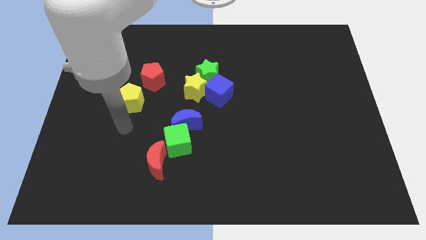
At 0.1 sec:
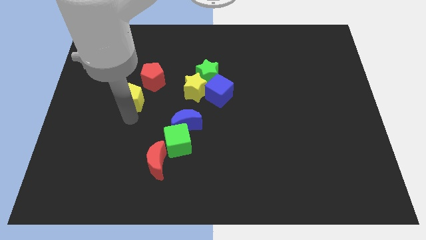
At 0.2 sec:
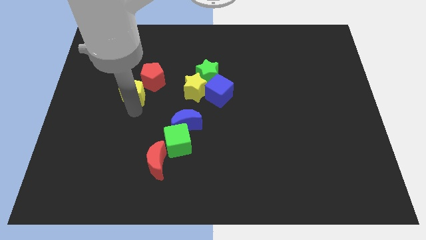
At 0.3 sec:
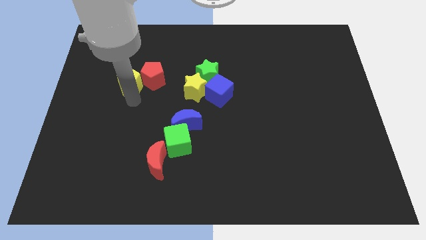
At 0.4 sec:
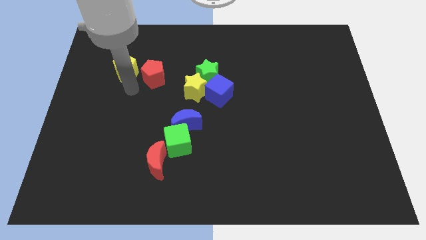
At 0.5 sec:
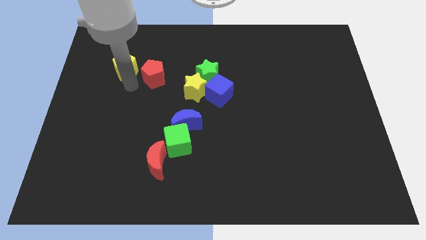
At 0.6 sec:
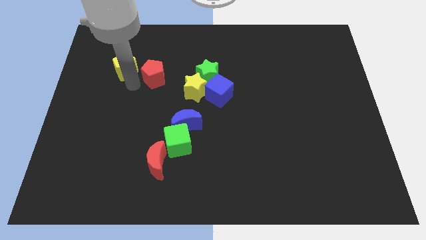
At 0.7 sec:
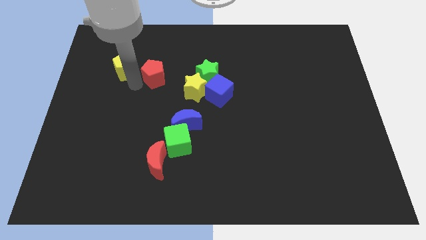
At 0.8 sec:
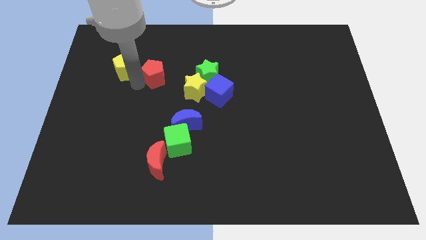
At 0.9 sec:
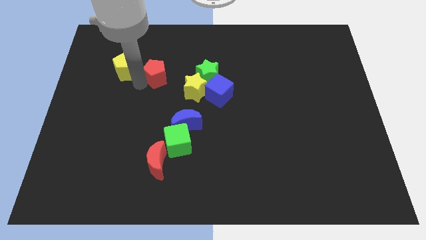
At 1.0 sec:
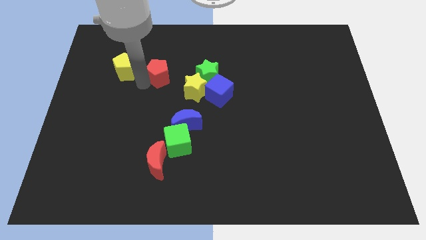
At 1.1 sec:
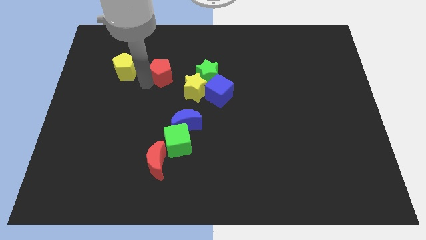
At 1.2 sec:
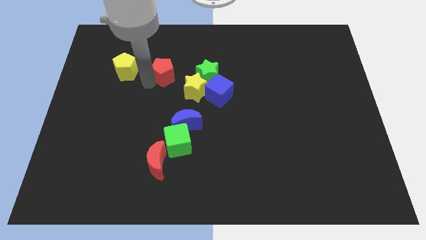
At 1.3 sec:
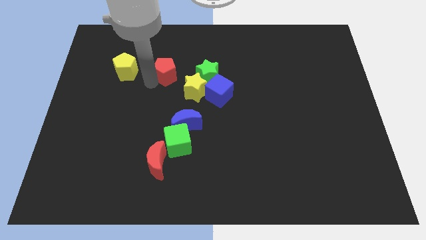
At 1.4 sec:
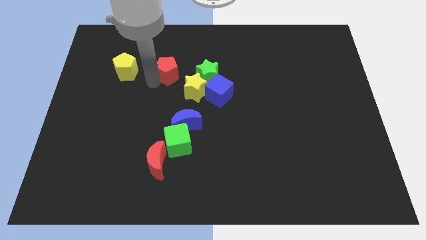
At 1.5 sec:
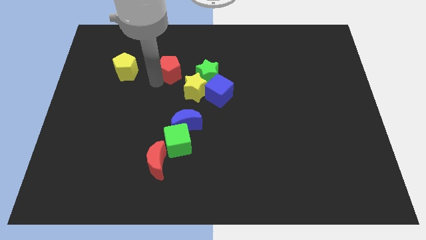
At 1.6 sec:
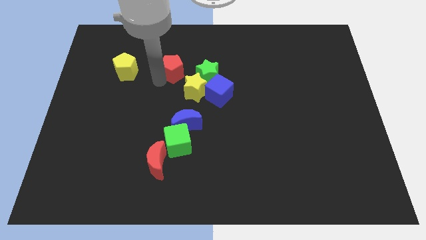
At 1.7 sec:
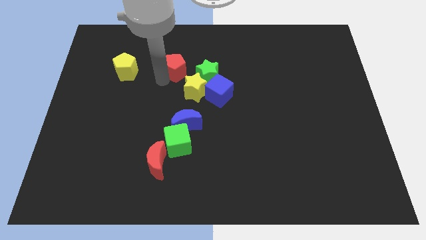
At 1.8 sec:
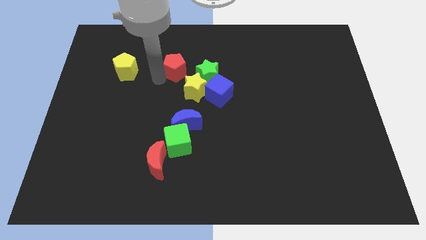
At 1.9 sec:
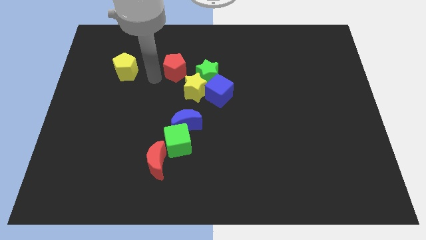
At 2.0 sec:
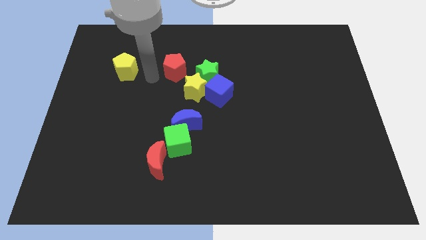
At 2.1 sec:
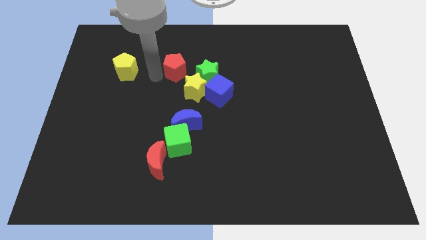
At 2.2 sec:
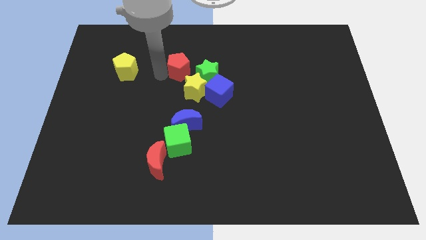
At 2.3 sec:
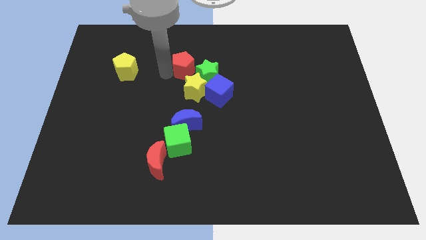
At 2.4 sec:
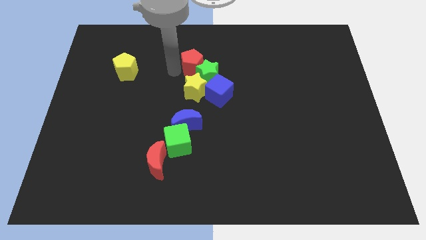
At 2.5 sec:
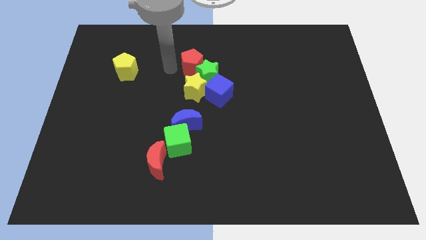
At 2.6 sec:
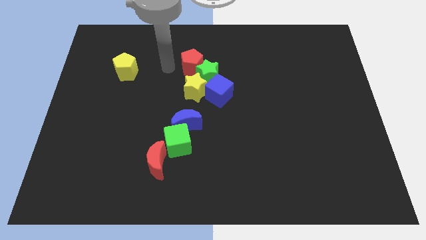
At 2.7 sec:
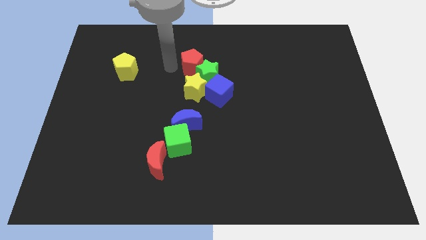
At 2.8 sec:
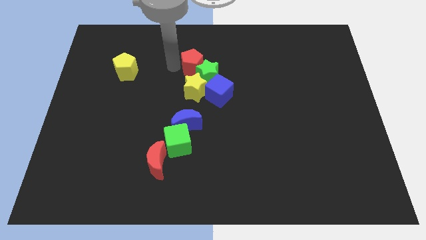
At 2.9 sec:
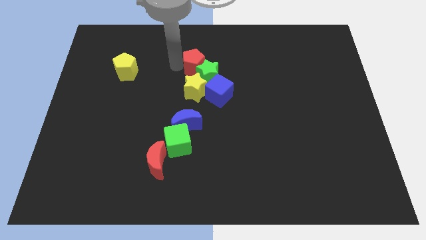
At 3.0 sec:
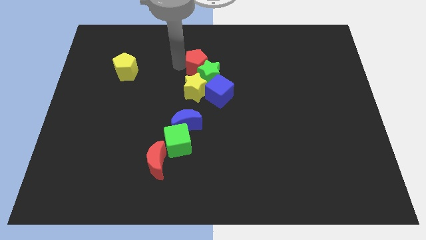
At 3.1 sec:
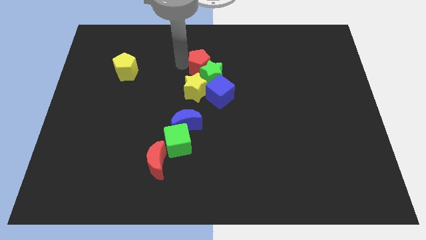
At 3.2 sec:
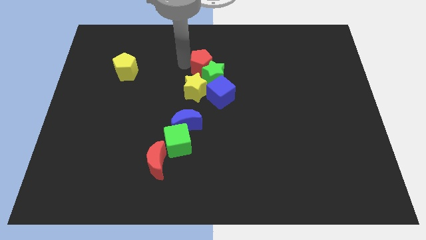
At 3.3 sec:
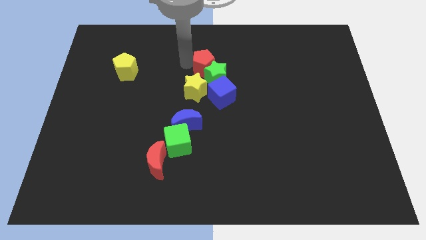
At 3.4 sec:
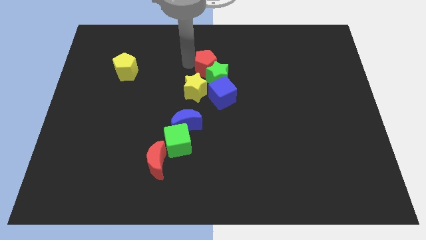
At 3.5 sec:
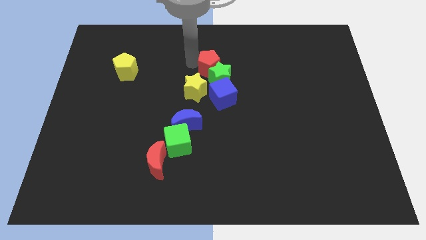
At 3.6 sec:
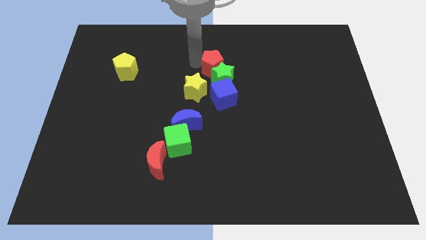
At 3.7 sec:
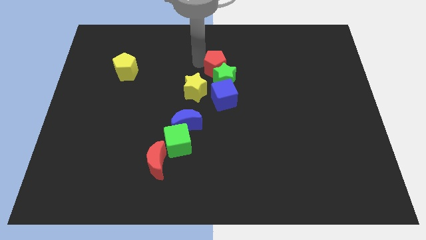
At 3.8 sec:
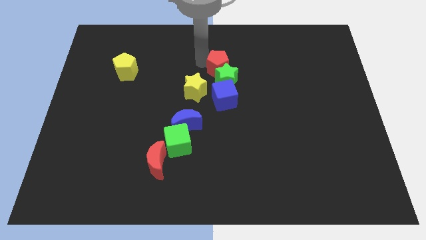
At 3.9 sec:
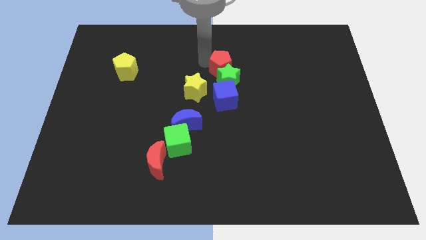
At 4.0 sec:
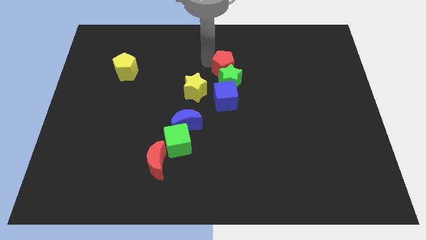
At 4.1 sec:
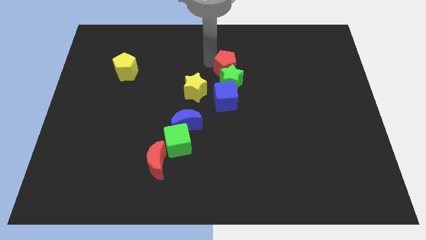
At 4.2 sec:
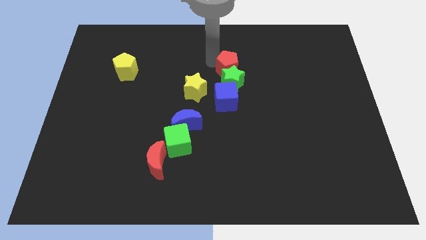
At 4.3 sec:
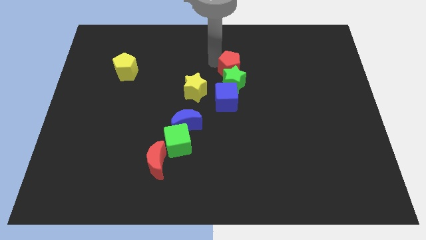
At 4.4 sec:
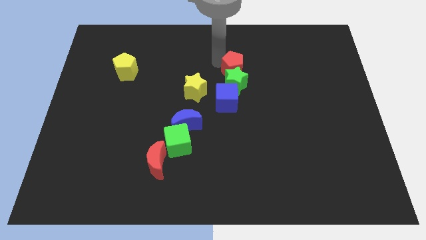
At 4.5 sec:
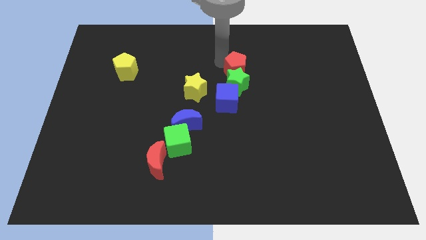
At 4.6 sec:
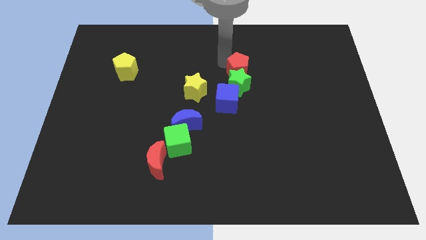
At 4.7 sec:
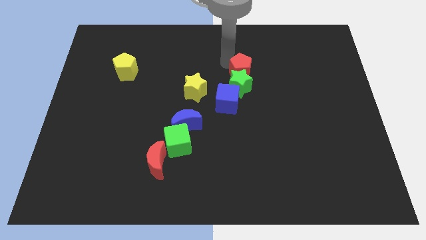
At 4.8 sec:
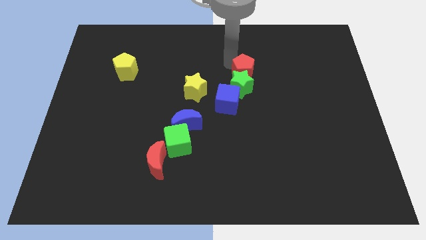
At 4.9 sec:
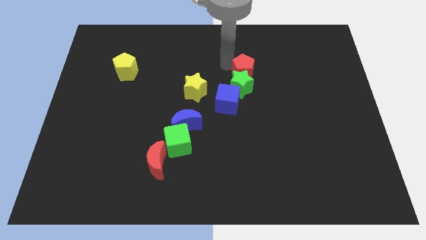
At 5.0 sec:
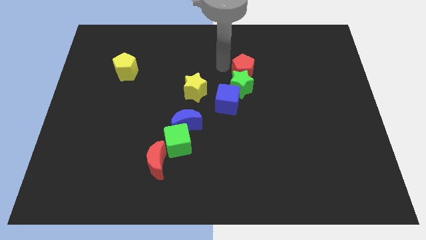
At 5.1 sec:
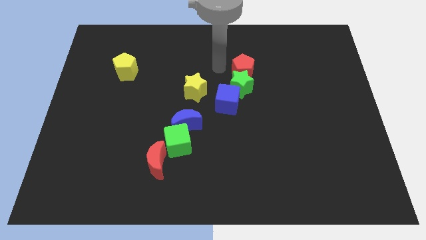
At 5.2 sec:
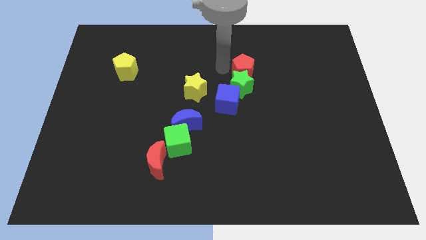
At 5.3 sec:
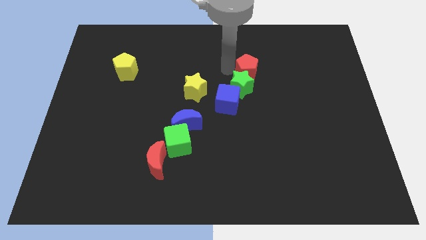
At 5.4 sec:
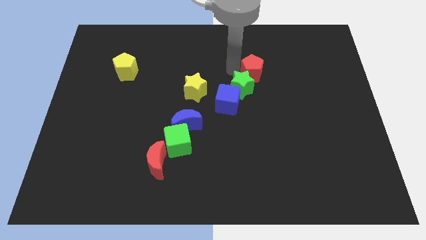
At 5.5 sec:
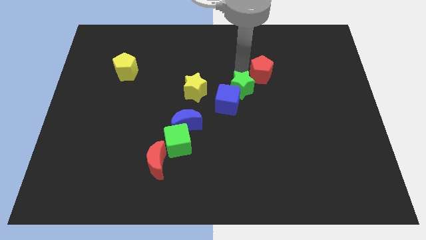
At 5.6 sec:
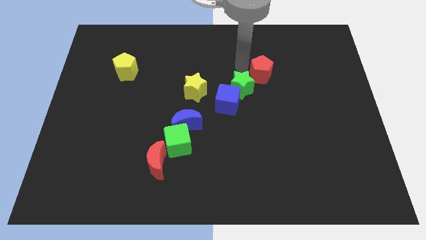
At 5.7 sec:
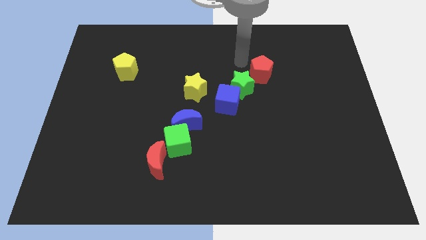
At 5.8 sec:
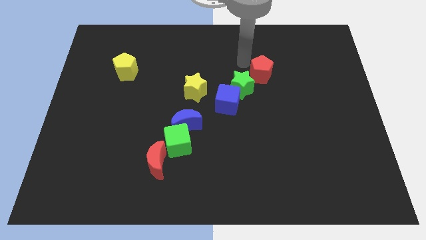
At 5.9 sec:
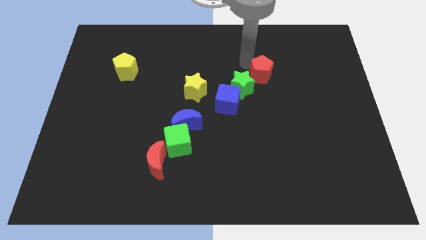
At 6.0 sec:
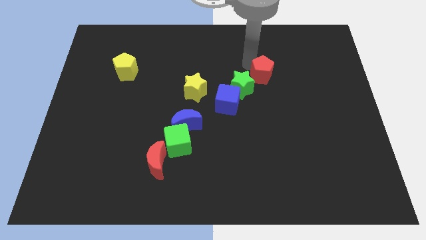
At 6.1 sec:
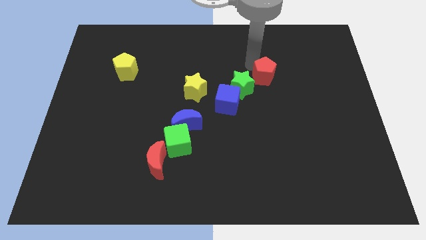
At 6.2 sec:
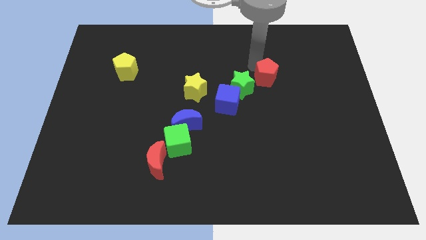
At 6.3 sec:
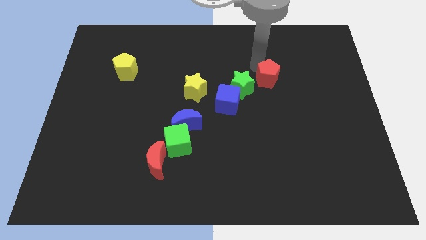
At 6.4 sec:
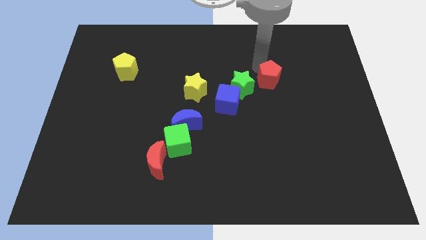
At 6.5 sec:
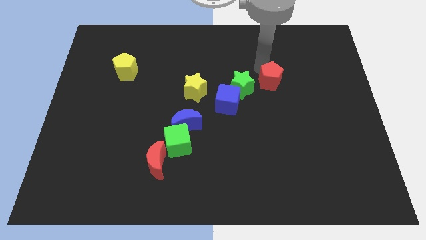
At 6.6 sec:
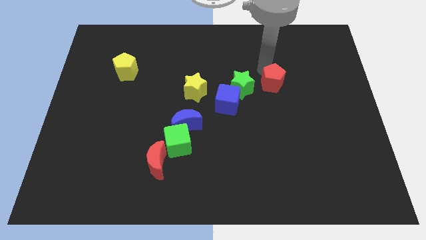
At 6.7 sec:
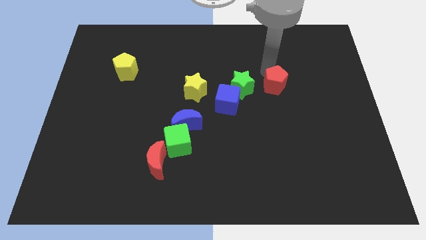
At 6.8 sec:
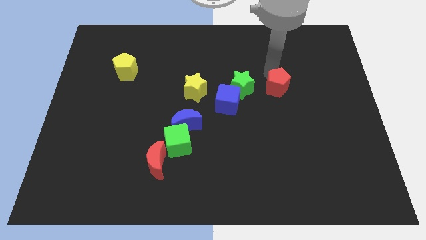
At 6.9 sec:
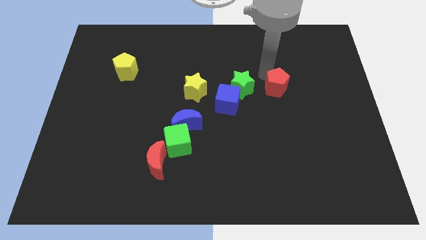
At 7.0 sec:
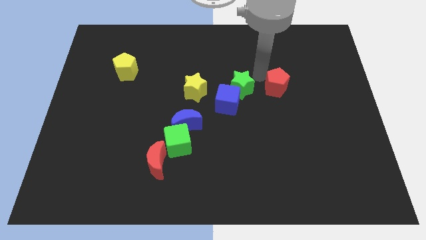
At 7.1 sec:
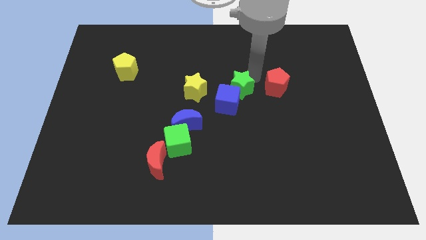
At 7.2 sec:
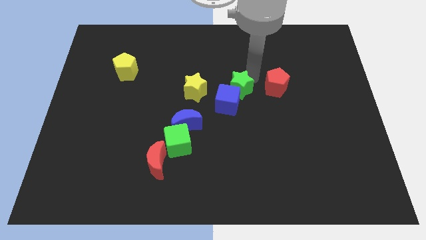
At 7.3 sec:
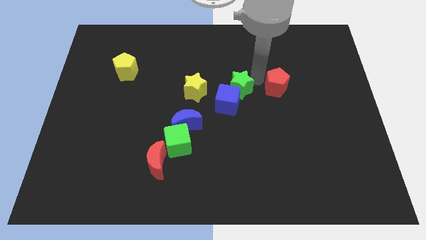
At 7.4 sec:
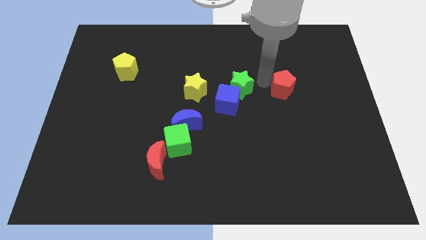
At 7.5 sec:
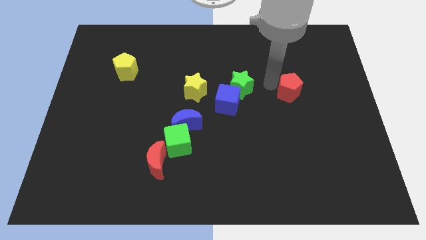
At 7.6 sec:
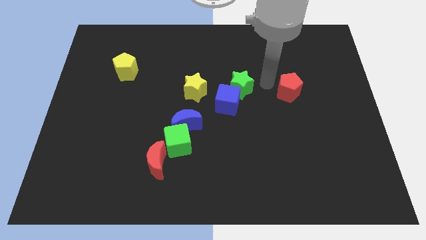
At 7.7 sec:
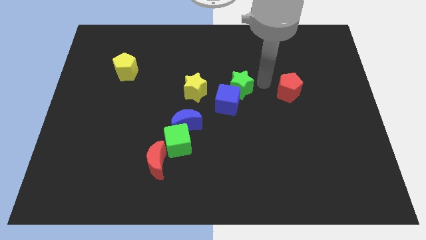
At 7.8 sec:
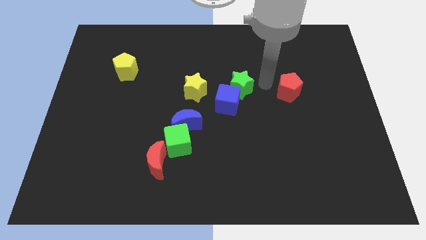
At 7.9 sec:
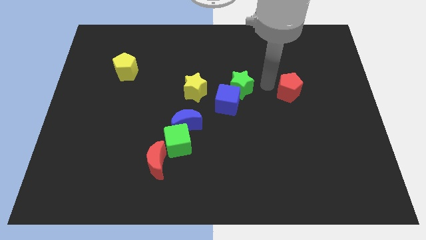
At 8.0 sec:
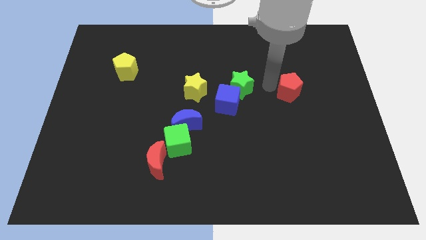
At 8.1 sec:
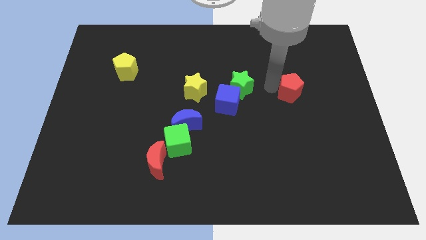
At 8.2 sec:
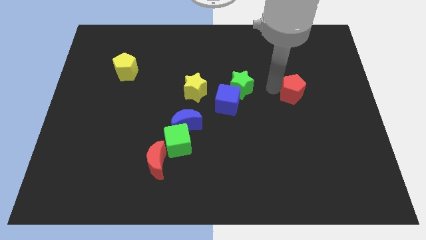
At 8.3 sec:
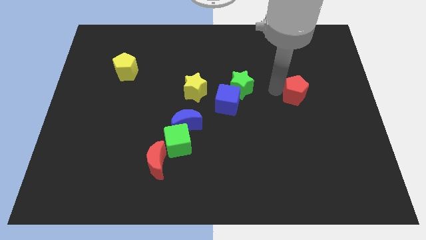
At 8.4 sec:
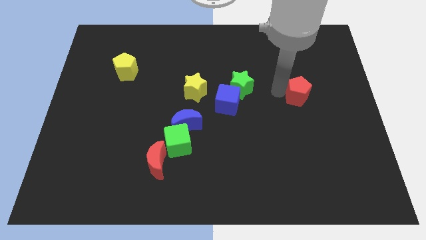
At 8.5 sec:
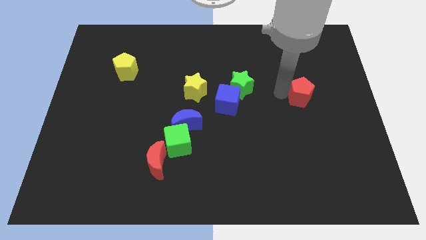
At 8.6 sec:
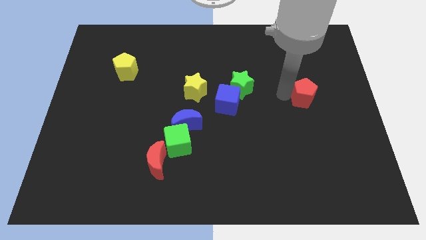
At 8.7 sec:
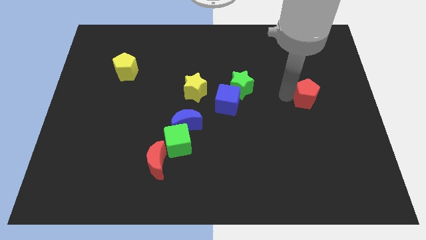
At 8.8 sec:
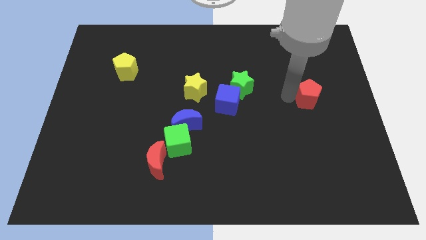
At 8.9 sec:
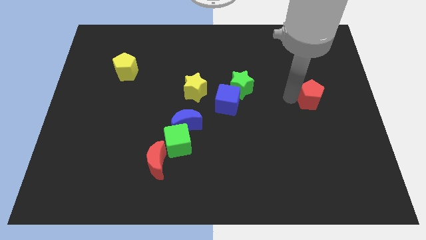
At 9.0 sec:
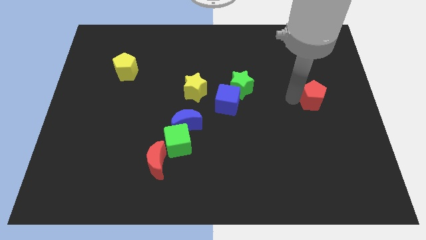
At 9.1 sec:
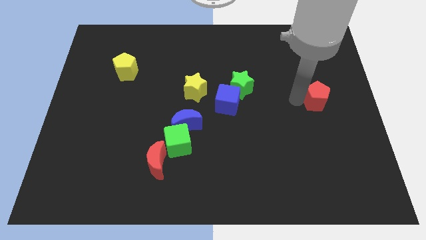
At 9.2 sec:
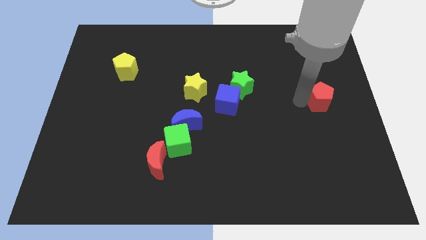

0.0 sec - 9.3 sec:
move the red pentagon to the right side of the board
